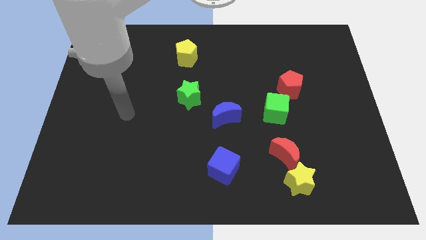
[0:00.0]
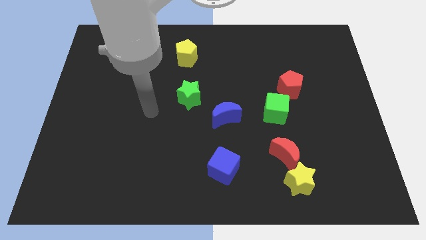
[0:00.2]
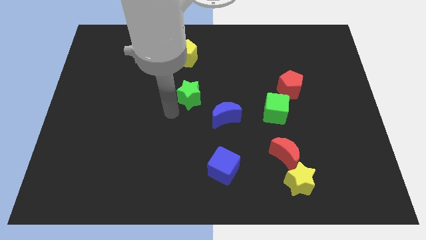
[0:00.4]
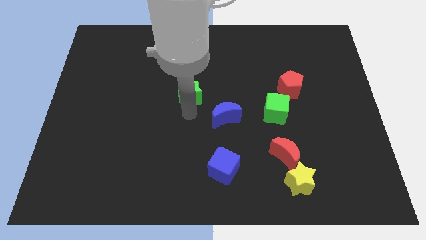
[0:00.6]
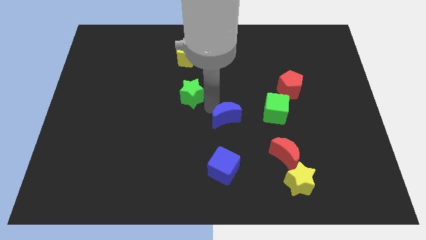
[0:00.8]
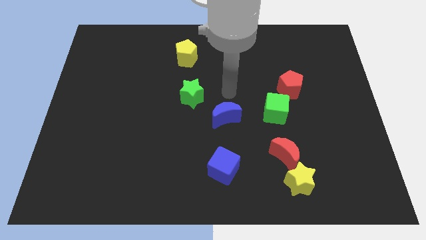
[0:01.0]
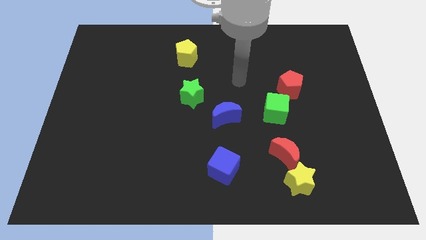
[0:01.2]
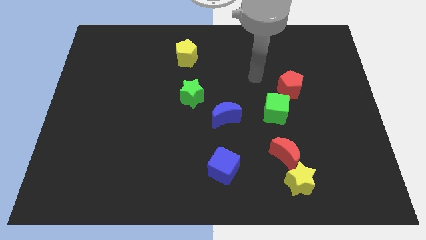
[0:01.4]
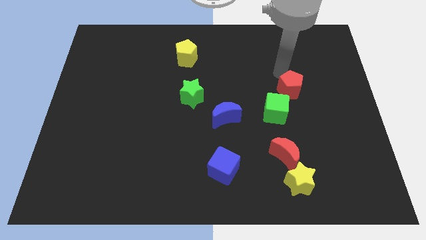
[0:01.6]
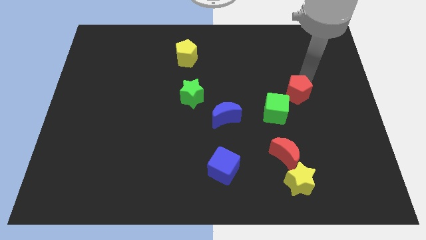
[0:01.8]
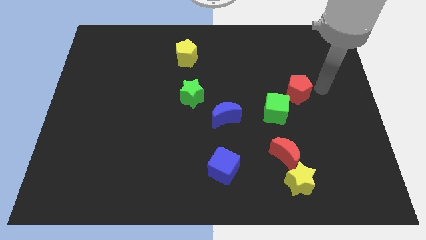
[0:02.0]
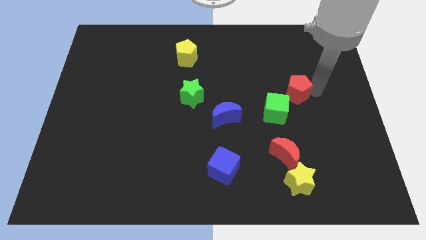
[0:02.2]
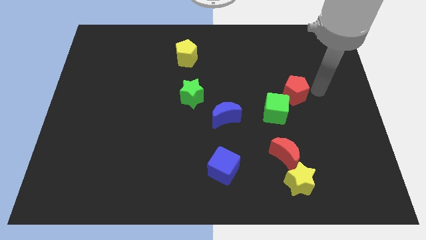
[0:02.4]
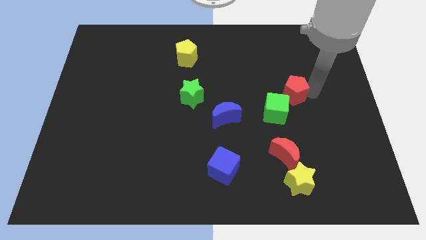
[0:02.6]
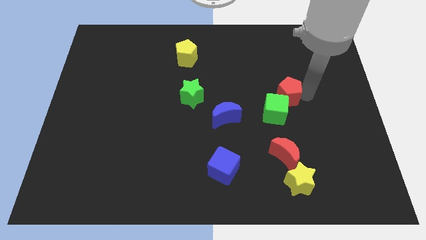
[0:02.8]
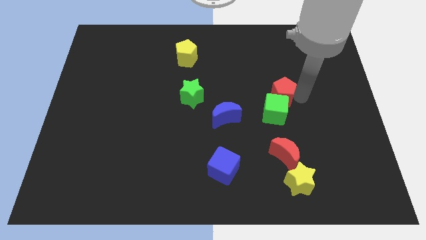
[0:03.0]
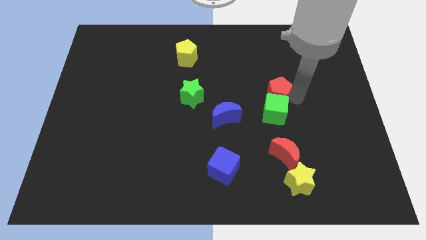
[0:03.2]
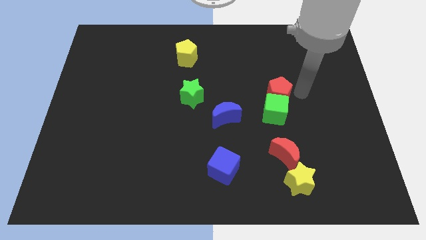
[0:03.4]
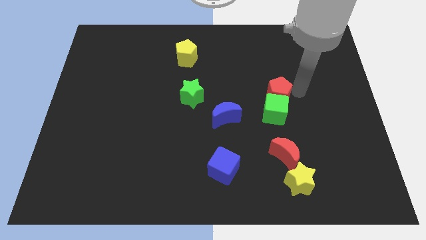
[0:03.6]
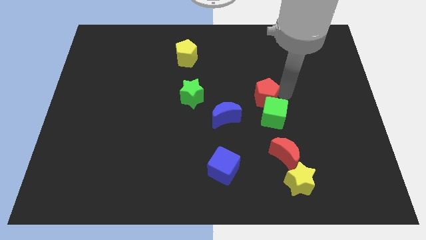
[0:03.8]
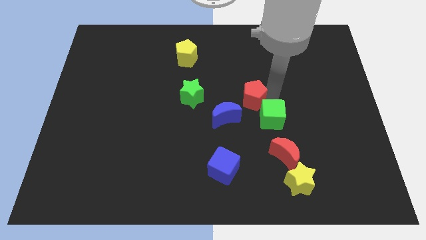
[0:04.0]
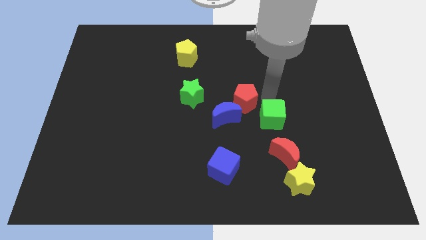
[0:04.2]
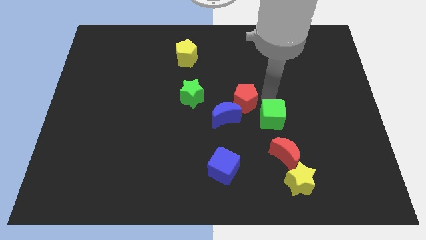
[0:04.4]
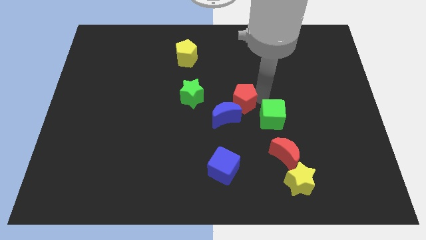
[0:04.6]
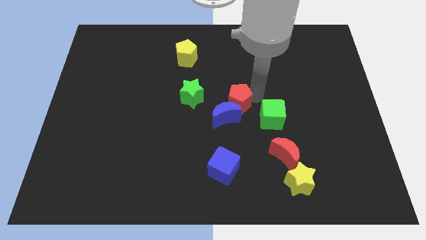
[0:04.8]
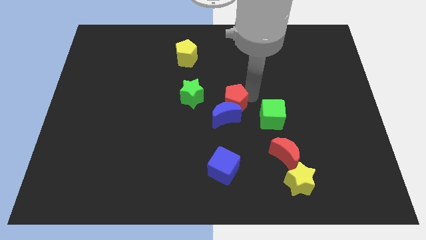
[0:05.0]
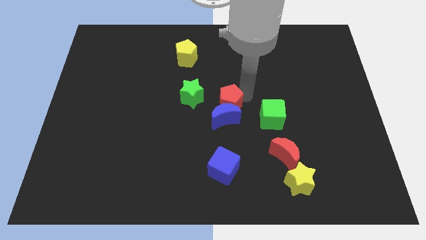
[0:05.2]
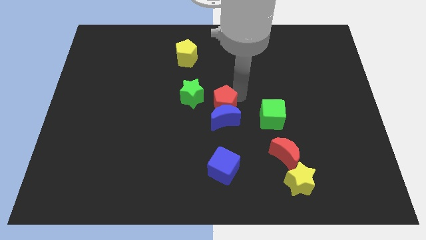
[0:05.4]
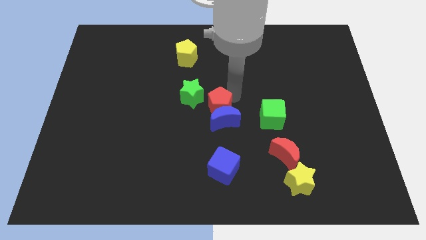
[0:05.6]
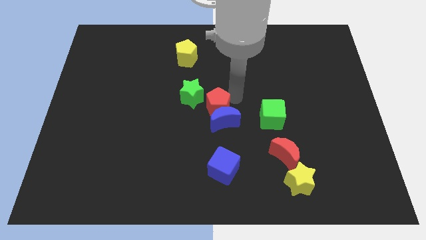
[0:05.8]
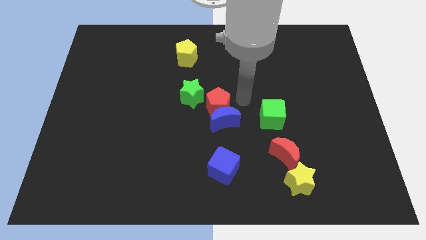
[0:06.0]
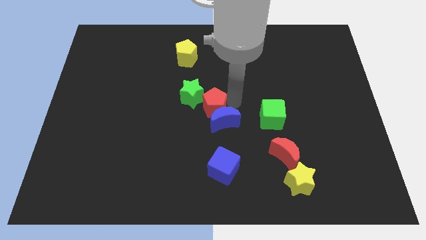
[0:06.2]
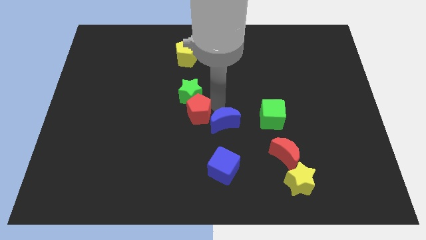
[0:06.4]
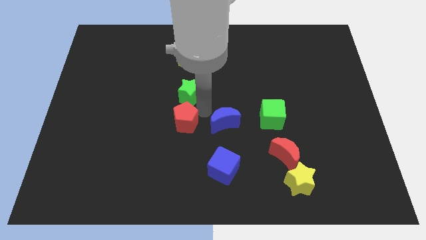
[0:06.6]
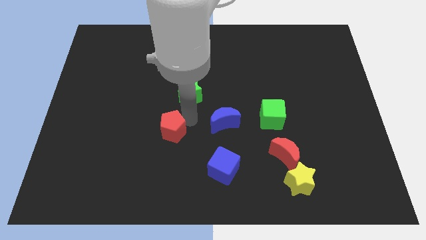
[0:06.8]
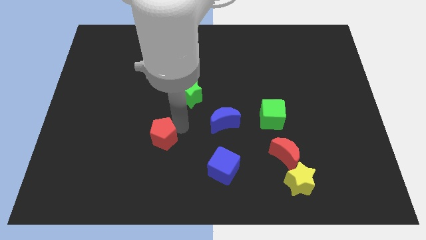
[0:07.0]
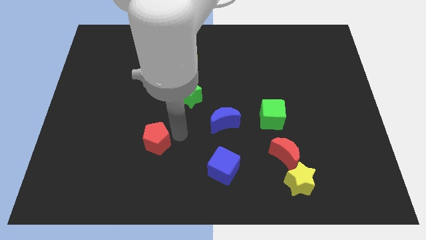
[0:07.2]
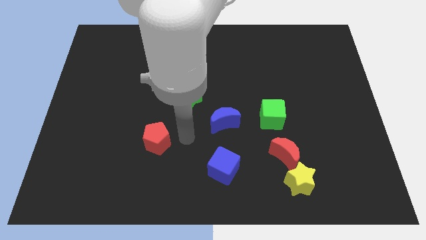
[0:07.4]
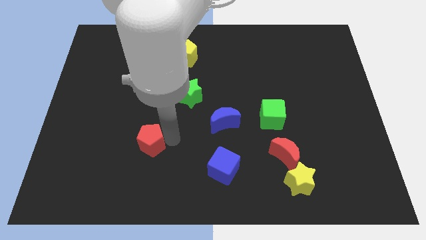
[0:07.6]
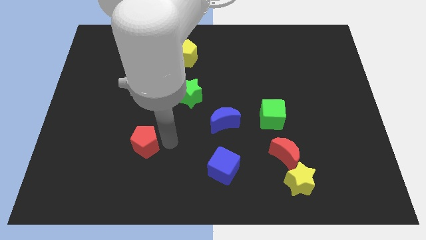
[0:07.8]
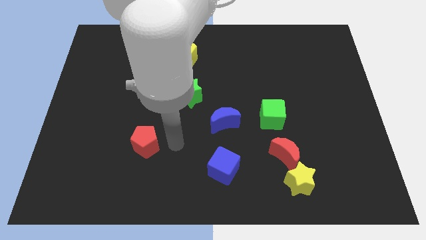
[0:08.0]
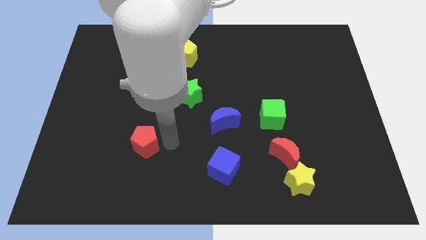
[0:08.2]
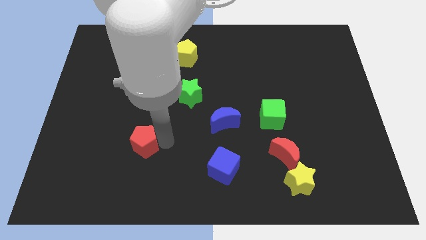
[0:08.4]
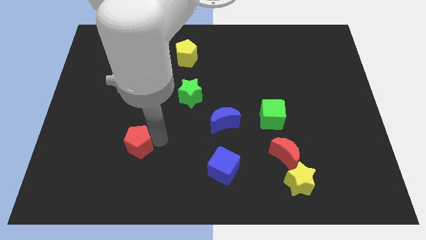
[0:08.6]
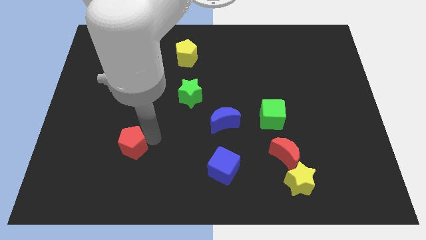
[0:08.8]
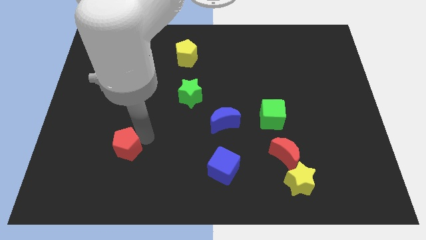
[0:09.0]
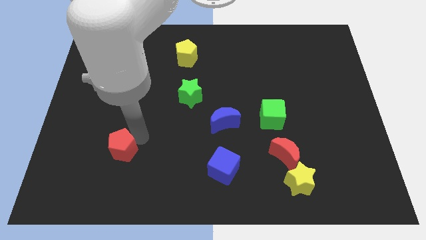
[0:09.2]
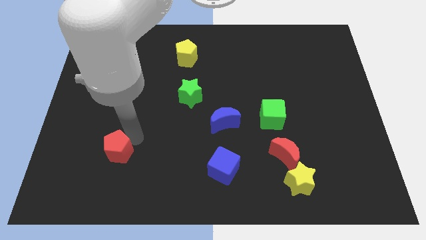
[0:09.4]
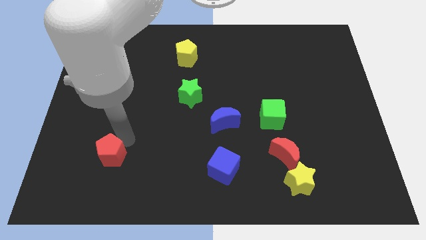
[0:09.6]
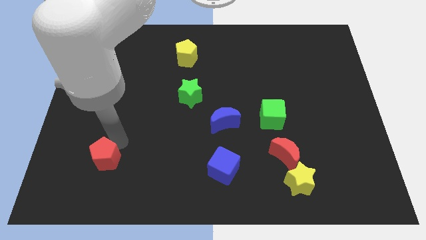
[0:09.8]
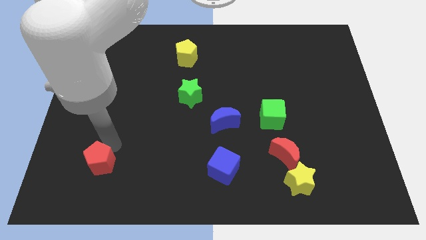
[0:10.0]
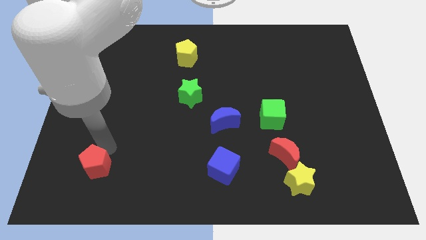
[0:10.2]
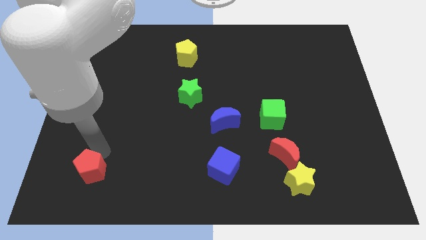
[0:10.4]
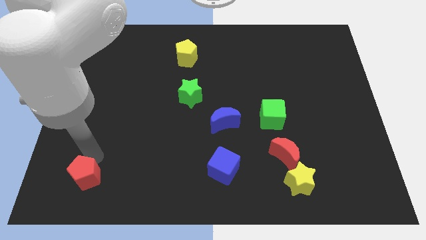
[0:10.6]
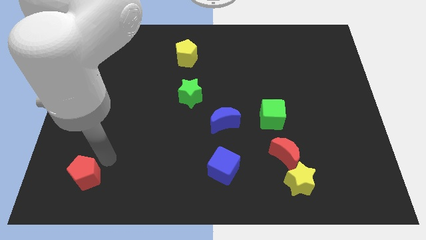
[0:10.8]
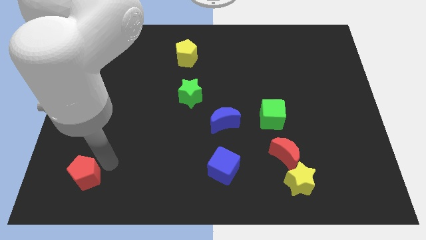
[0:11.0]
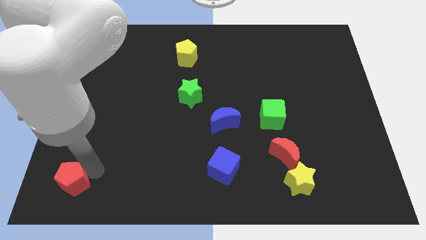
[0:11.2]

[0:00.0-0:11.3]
move the red pentagon to the lower left corner
